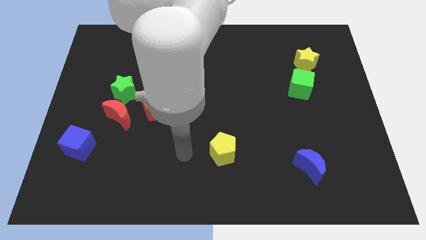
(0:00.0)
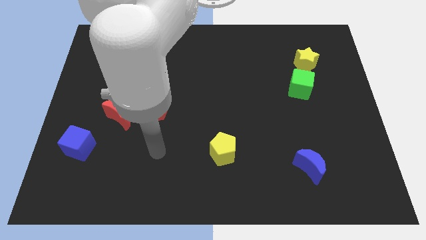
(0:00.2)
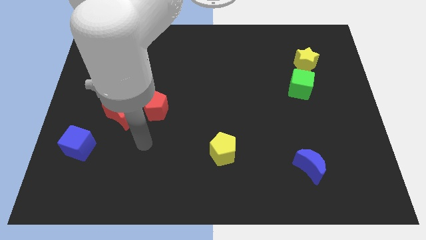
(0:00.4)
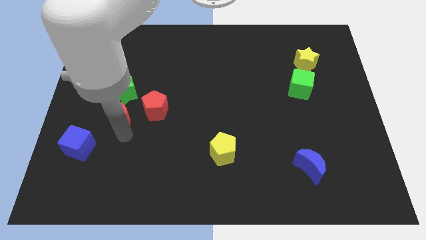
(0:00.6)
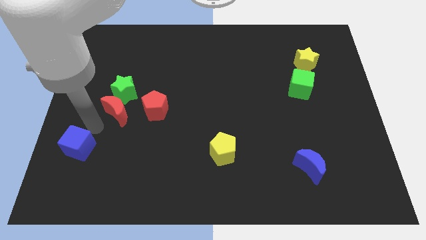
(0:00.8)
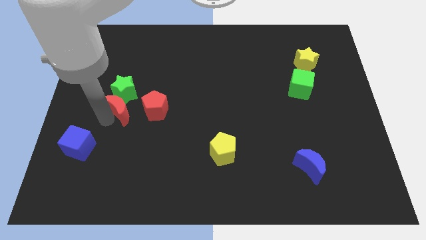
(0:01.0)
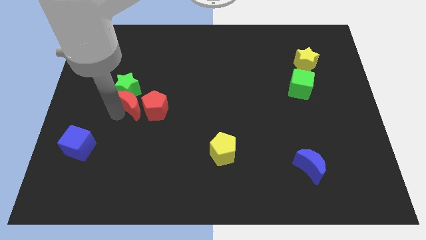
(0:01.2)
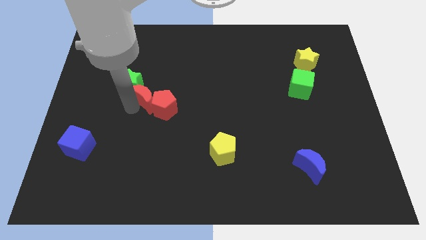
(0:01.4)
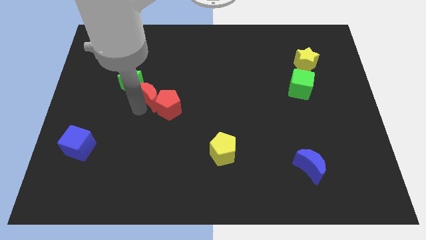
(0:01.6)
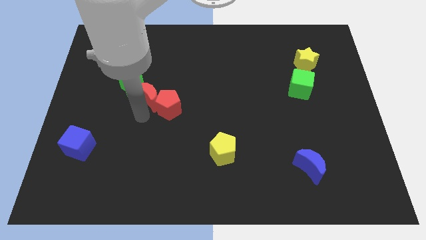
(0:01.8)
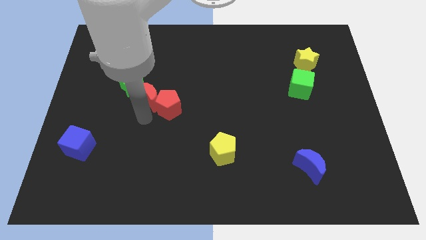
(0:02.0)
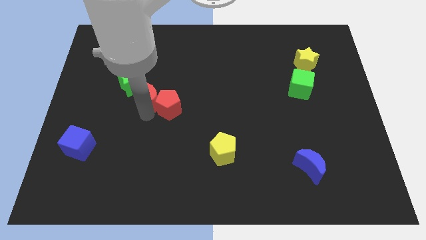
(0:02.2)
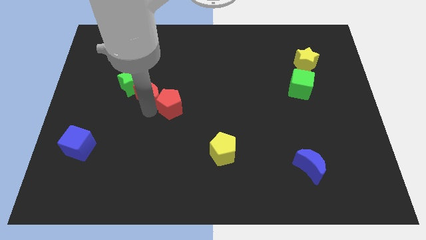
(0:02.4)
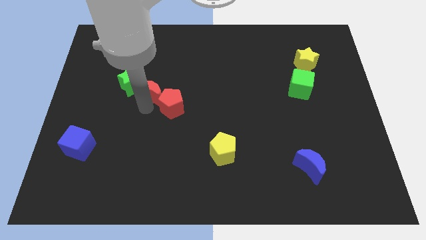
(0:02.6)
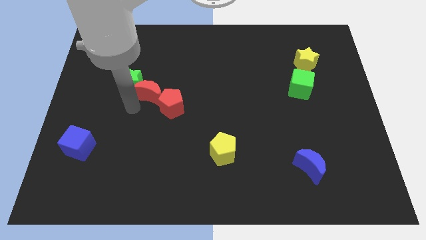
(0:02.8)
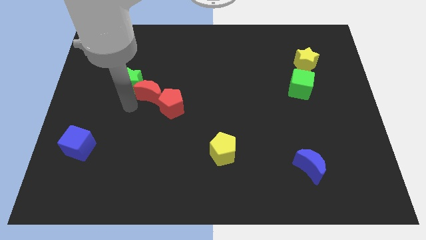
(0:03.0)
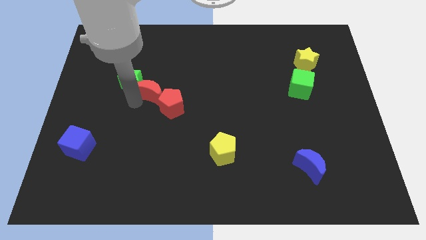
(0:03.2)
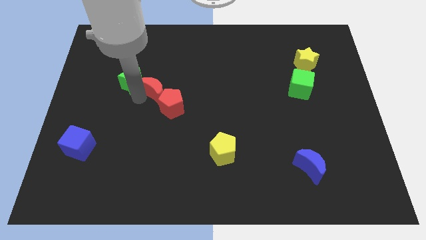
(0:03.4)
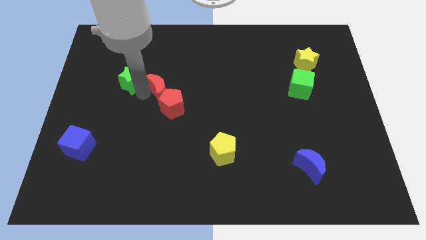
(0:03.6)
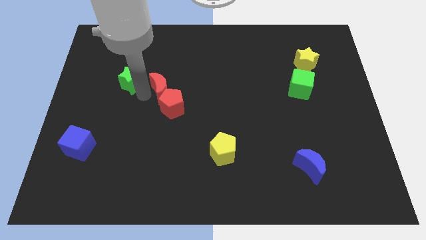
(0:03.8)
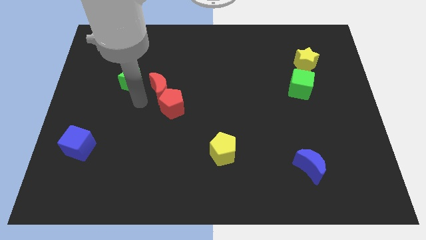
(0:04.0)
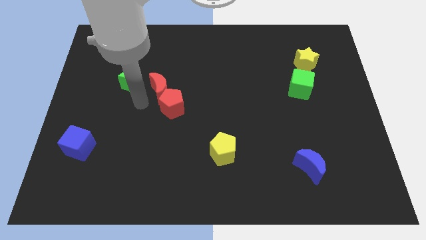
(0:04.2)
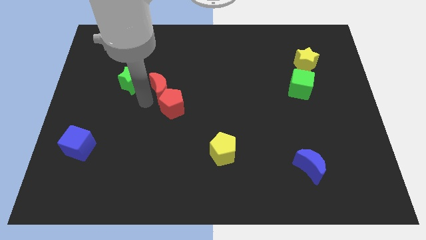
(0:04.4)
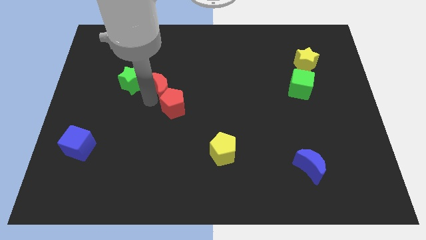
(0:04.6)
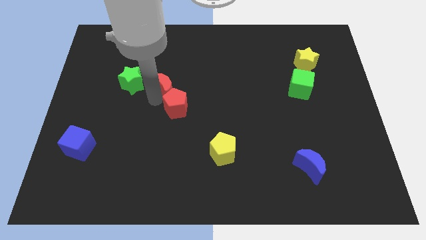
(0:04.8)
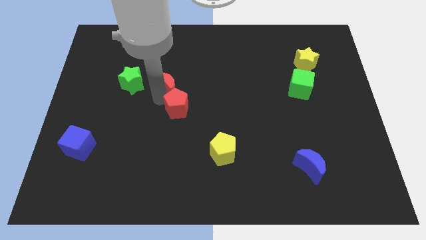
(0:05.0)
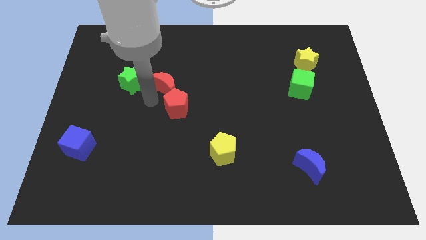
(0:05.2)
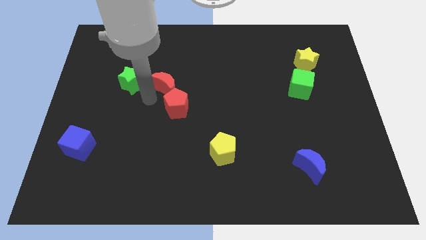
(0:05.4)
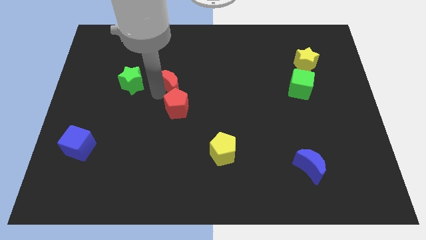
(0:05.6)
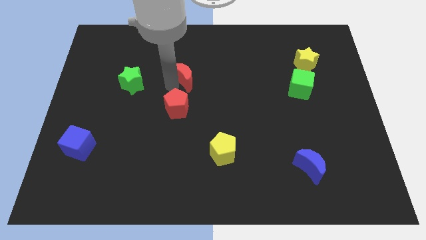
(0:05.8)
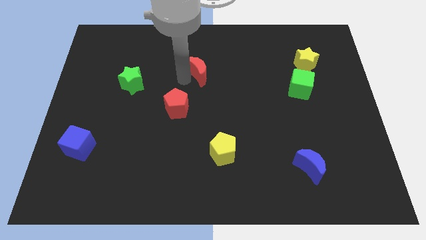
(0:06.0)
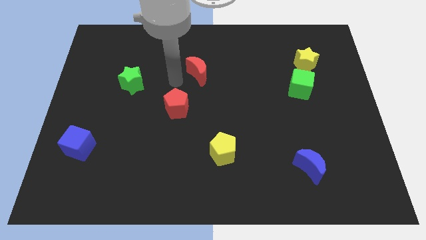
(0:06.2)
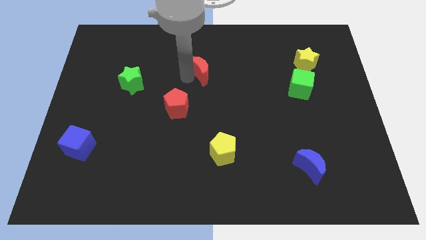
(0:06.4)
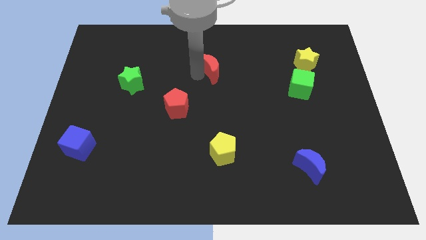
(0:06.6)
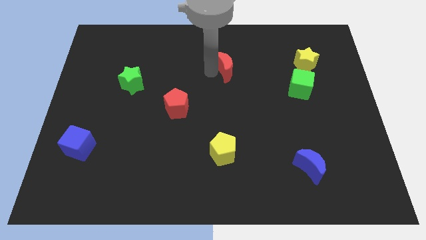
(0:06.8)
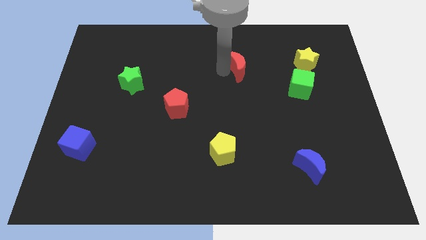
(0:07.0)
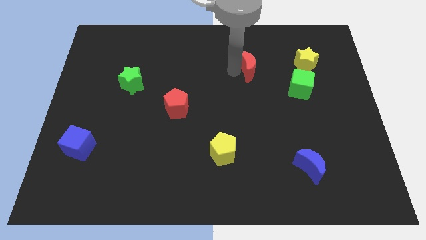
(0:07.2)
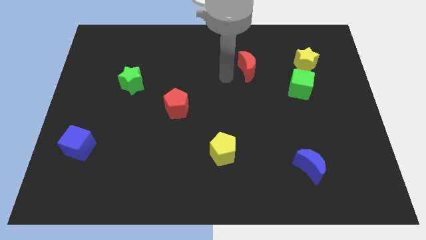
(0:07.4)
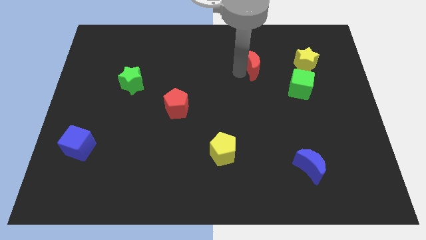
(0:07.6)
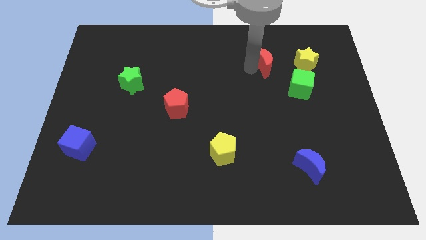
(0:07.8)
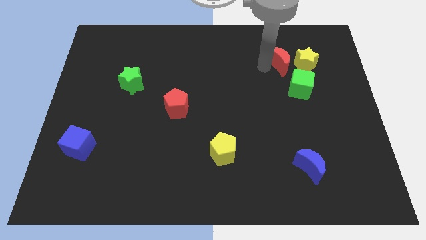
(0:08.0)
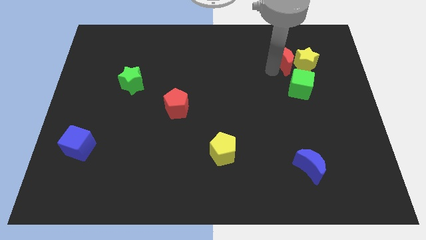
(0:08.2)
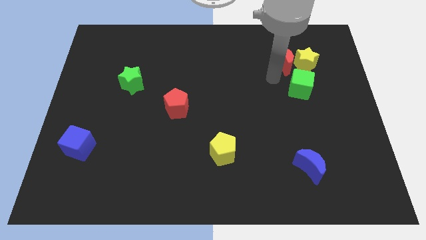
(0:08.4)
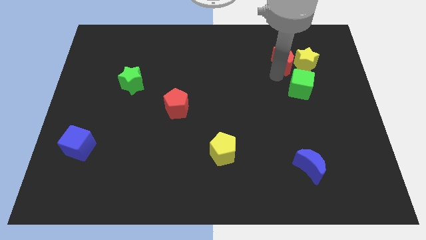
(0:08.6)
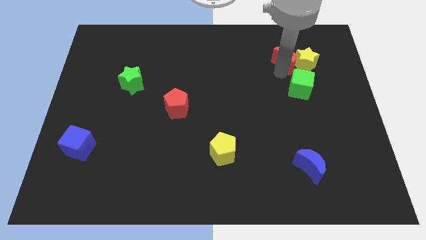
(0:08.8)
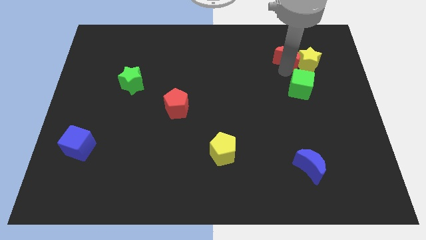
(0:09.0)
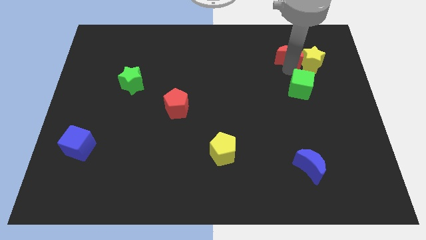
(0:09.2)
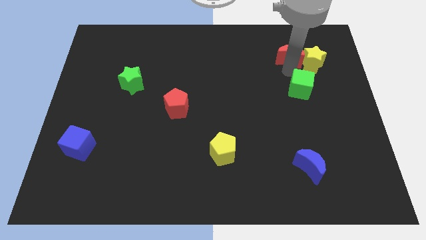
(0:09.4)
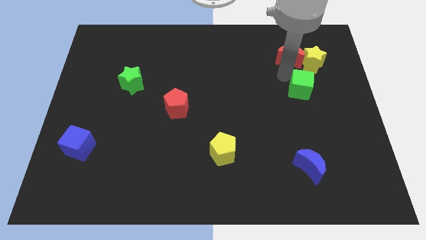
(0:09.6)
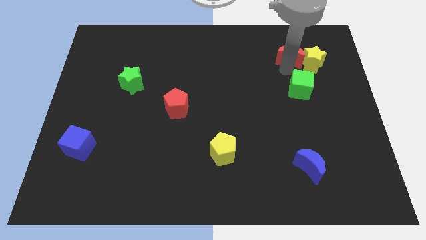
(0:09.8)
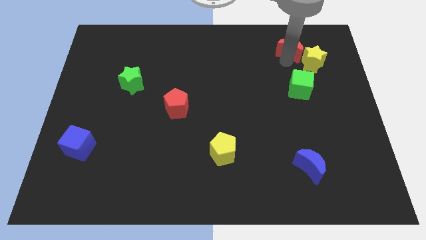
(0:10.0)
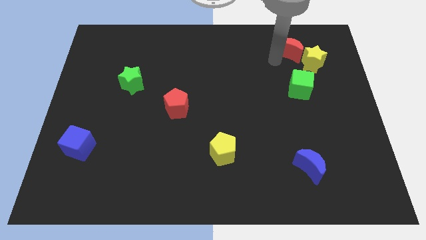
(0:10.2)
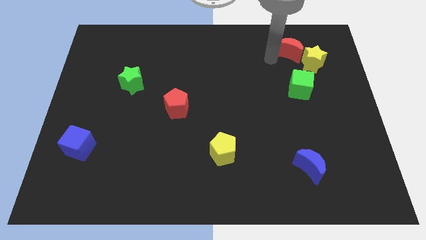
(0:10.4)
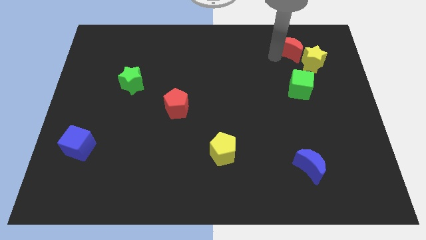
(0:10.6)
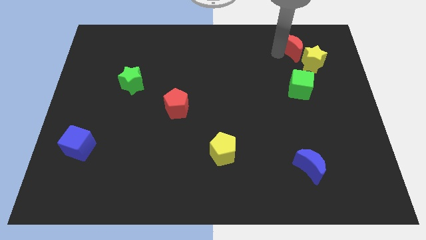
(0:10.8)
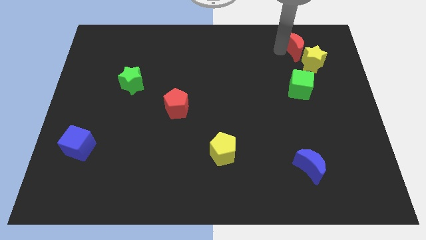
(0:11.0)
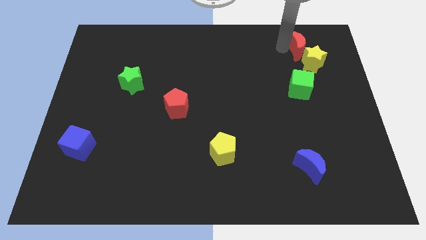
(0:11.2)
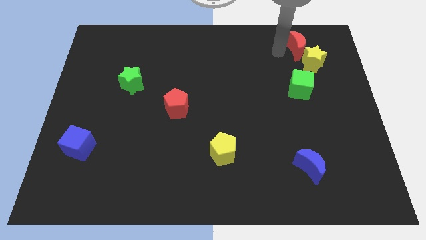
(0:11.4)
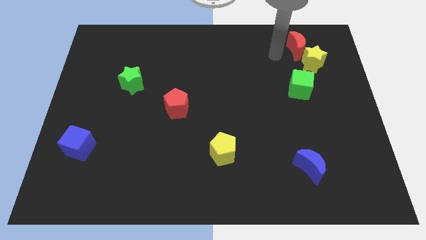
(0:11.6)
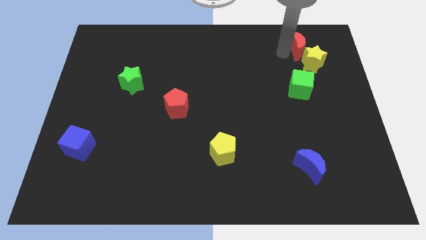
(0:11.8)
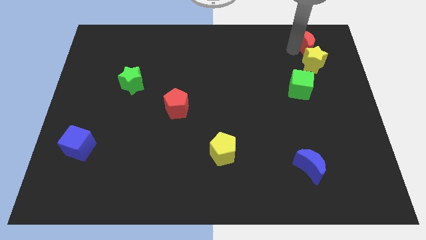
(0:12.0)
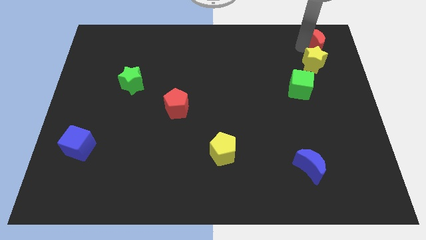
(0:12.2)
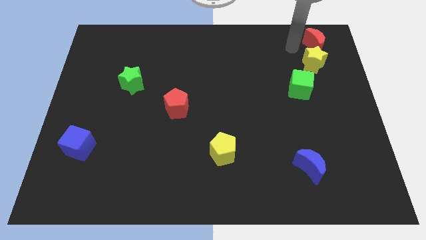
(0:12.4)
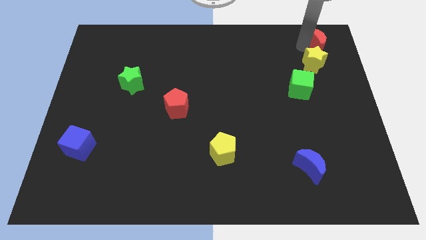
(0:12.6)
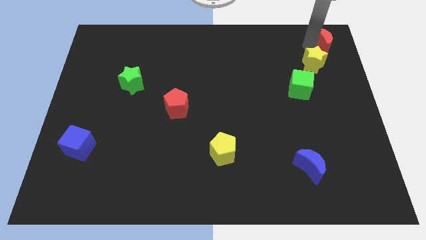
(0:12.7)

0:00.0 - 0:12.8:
slide the red moon to the top right

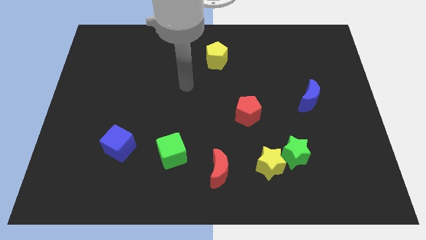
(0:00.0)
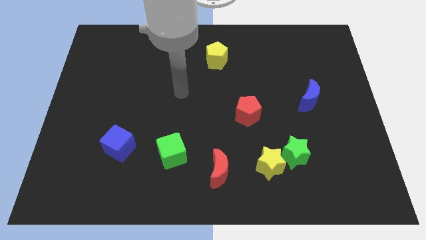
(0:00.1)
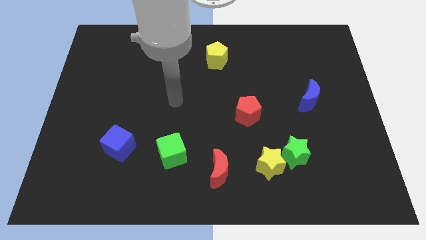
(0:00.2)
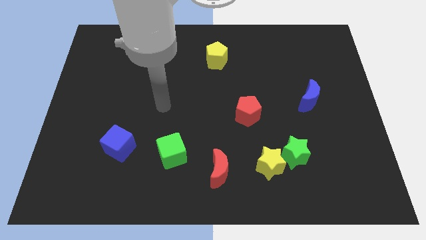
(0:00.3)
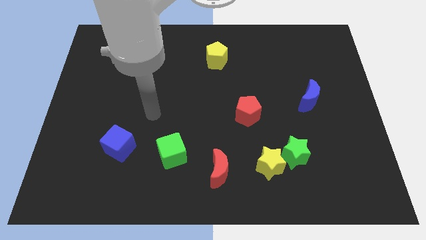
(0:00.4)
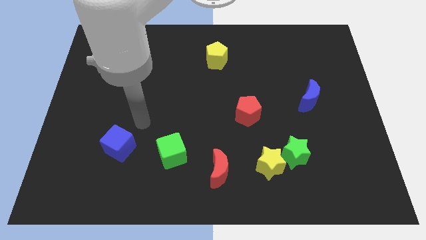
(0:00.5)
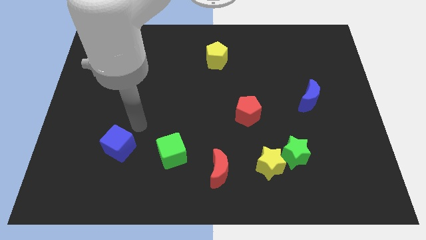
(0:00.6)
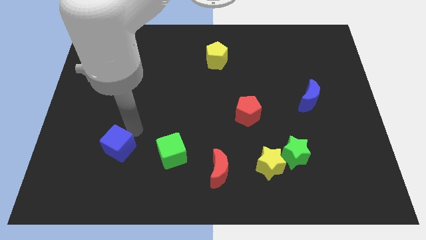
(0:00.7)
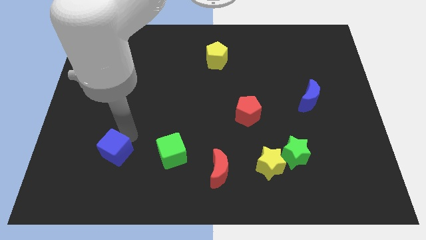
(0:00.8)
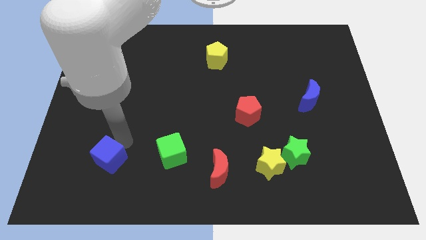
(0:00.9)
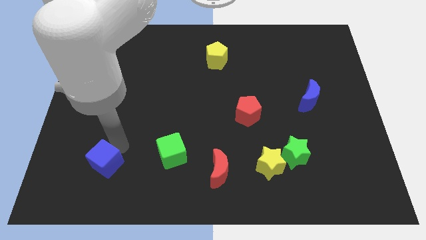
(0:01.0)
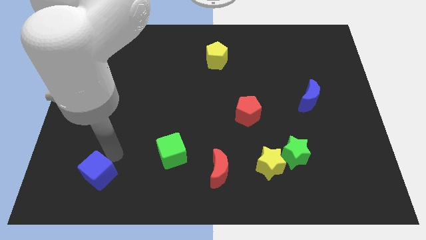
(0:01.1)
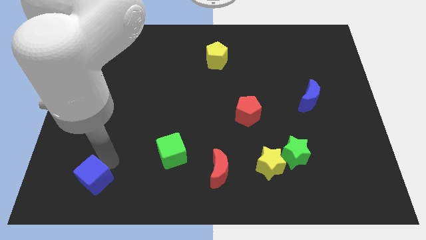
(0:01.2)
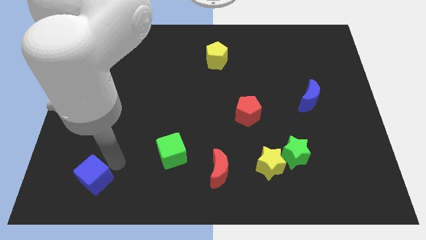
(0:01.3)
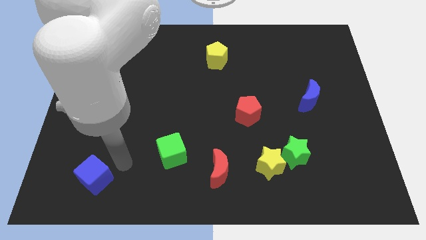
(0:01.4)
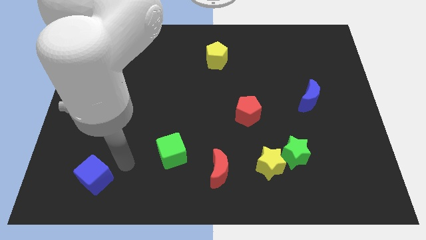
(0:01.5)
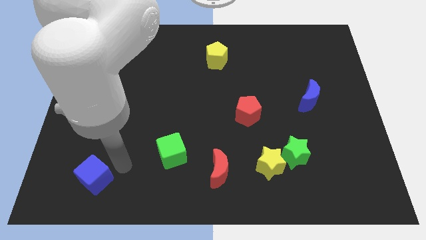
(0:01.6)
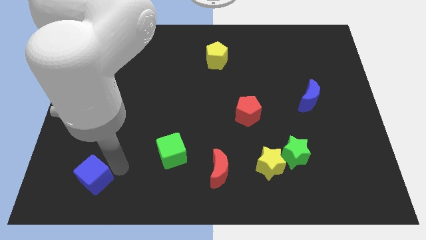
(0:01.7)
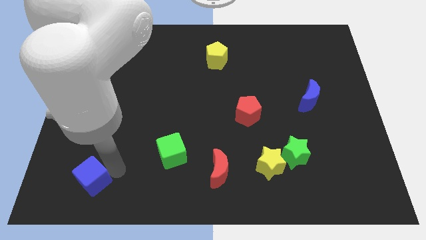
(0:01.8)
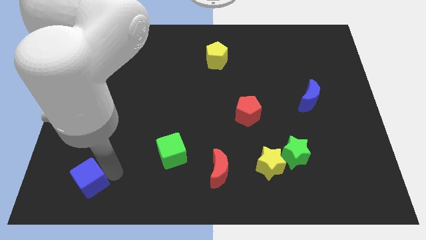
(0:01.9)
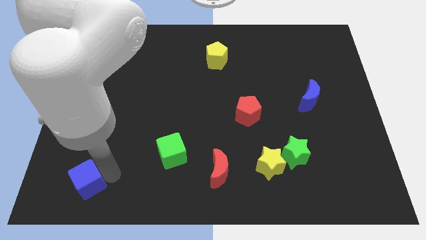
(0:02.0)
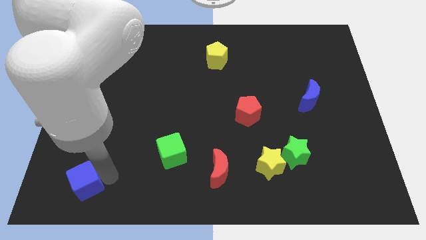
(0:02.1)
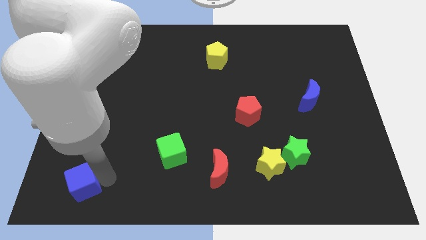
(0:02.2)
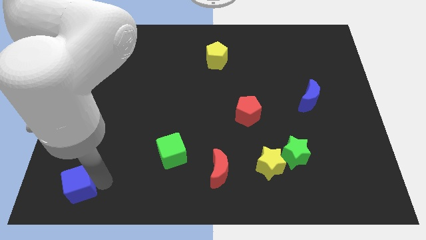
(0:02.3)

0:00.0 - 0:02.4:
move the blue cube to the bottom left corner
